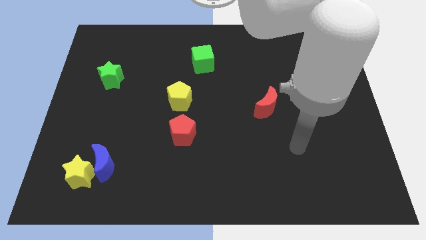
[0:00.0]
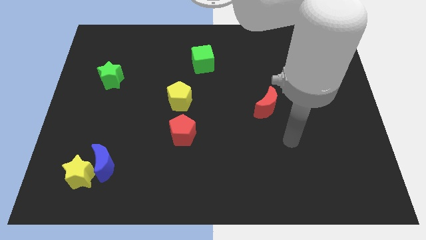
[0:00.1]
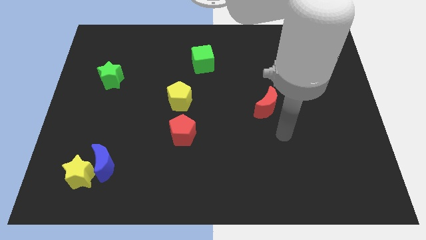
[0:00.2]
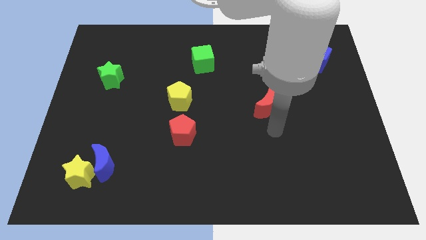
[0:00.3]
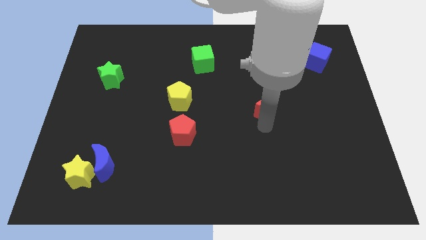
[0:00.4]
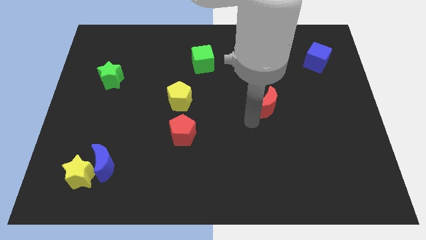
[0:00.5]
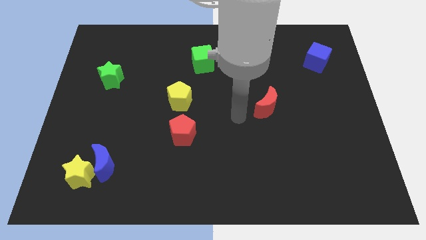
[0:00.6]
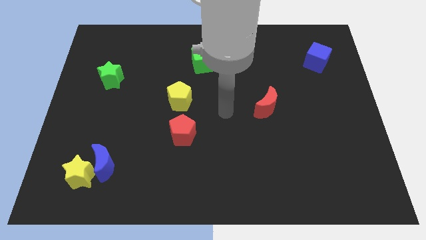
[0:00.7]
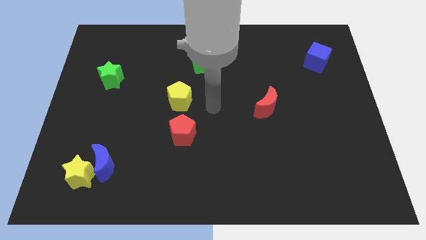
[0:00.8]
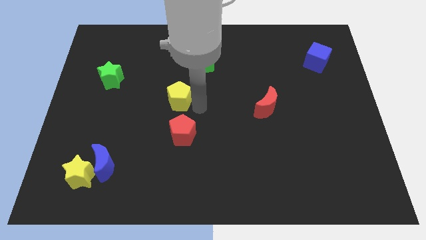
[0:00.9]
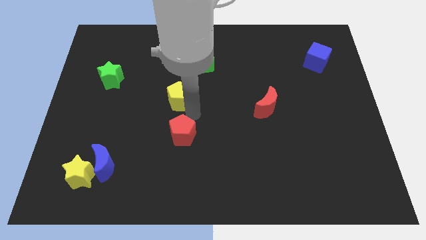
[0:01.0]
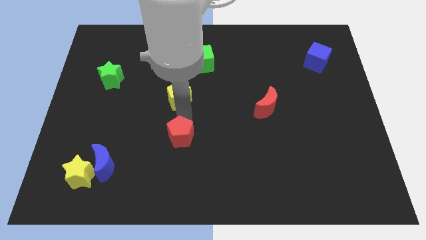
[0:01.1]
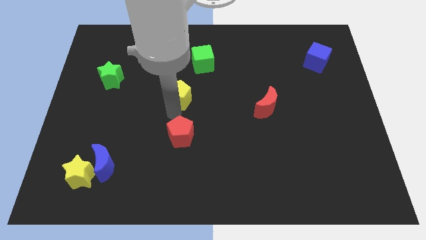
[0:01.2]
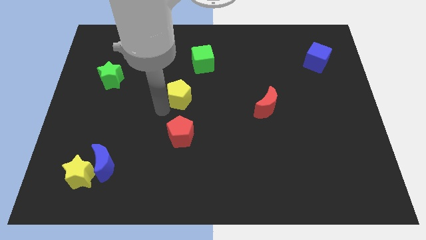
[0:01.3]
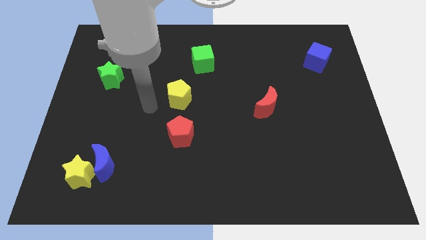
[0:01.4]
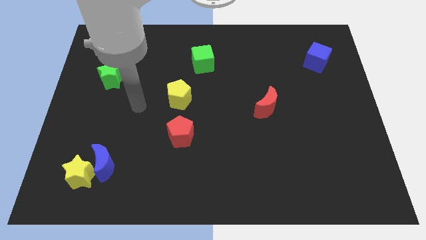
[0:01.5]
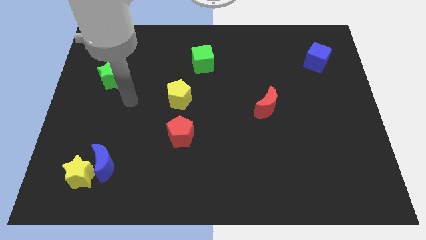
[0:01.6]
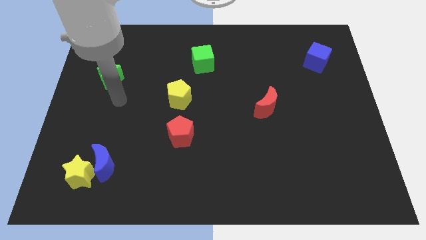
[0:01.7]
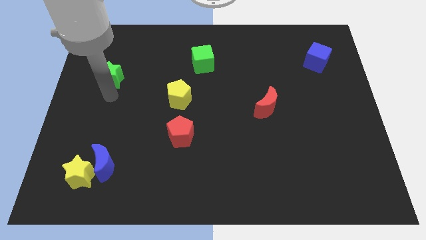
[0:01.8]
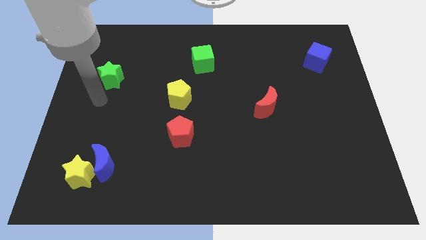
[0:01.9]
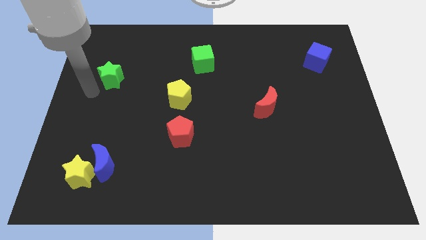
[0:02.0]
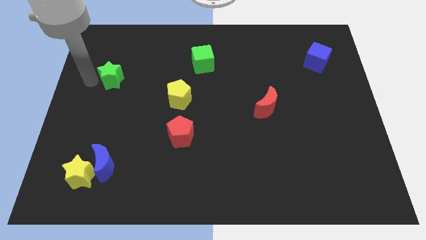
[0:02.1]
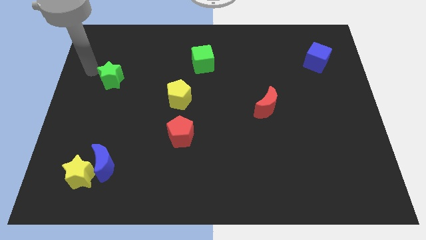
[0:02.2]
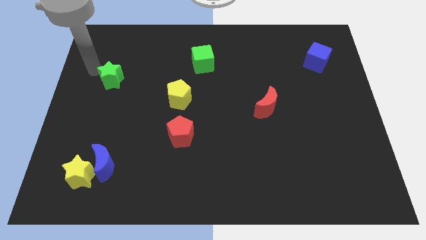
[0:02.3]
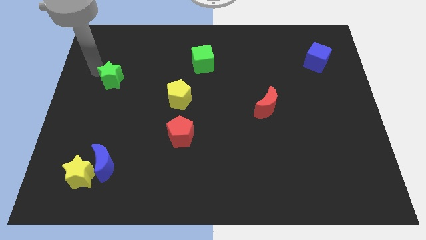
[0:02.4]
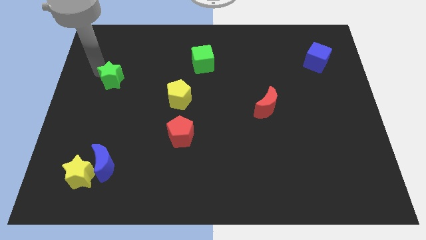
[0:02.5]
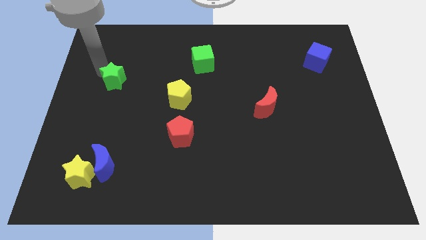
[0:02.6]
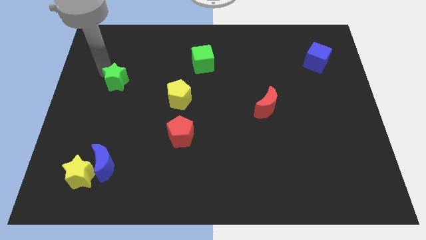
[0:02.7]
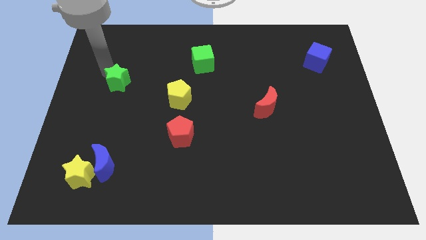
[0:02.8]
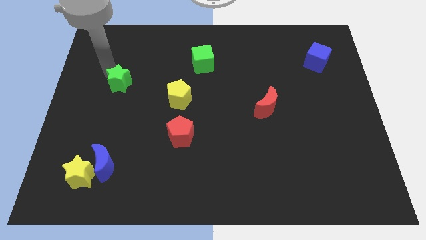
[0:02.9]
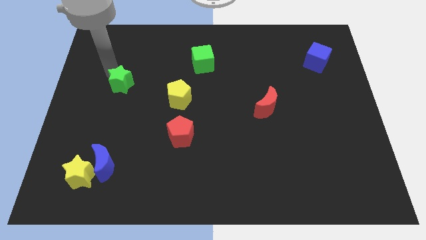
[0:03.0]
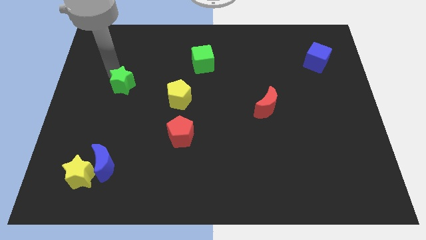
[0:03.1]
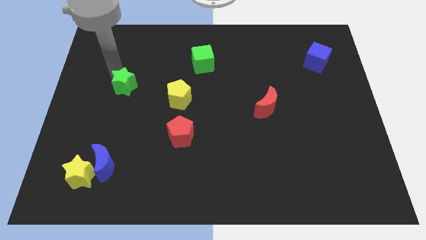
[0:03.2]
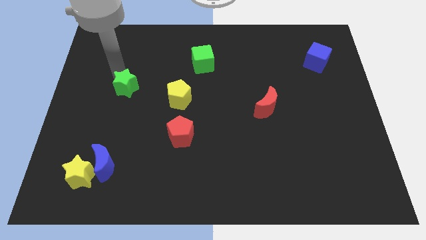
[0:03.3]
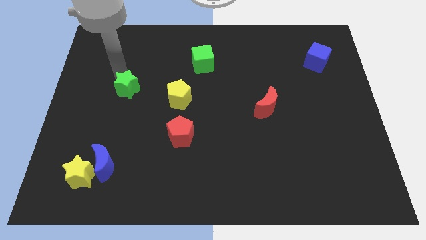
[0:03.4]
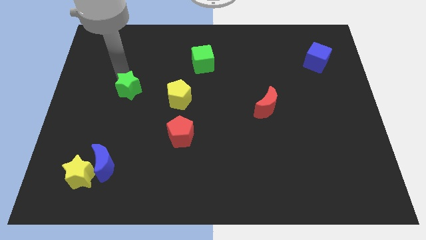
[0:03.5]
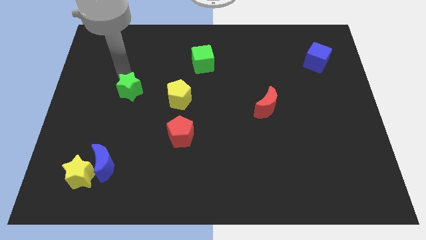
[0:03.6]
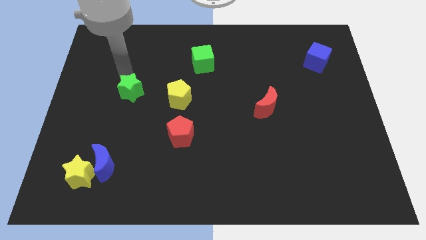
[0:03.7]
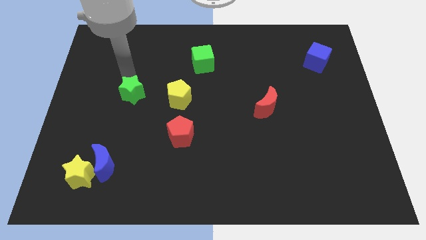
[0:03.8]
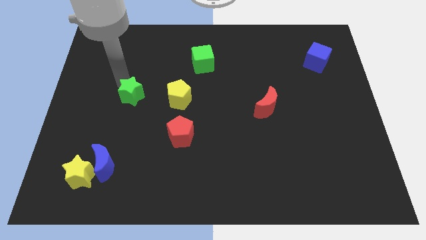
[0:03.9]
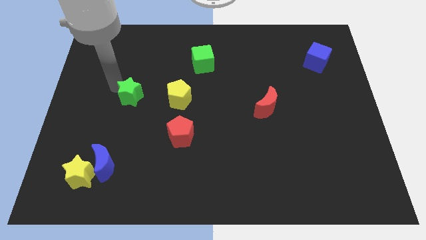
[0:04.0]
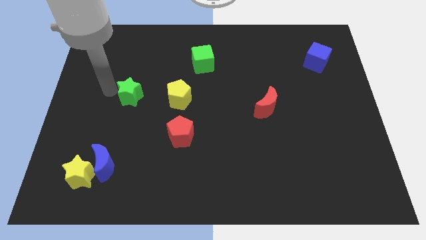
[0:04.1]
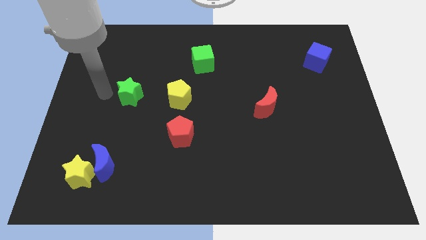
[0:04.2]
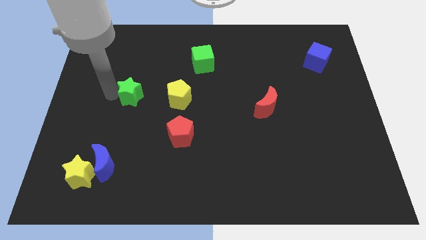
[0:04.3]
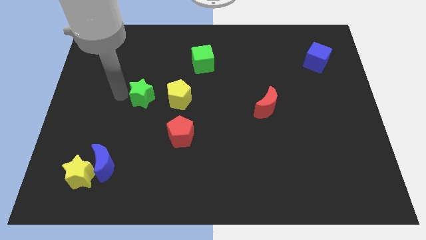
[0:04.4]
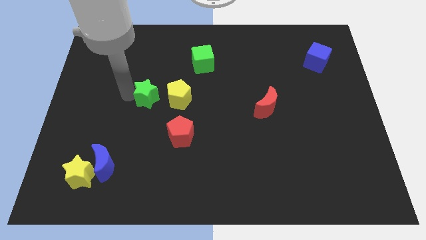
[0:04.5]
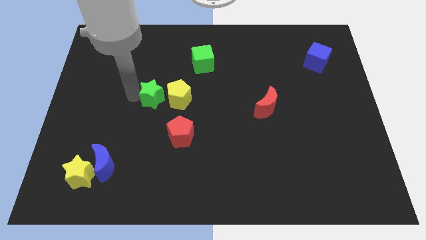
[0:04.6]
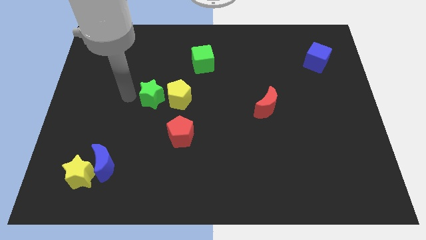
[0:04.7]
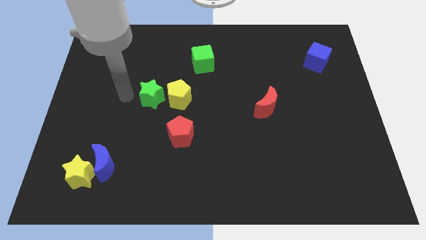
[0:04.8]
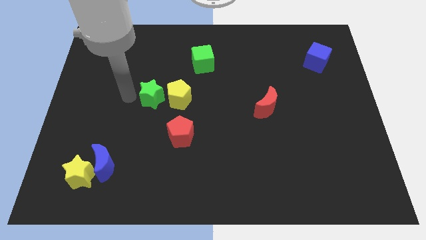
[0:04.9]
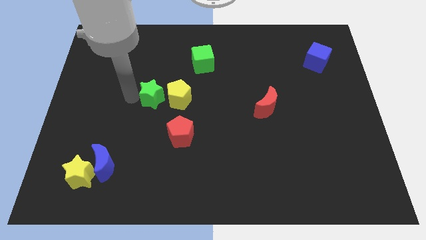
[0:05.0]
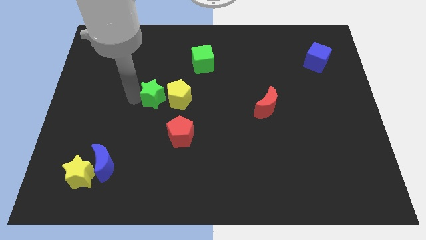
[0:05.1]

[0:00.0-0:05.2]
slide the green star to the yellow pentagon

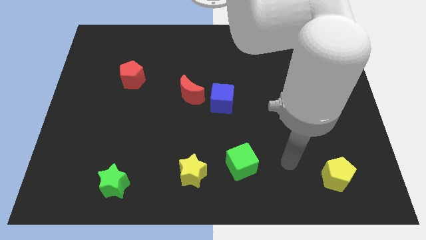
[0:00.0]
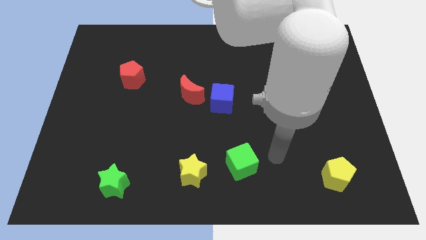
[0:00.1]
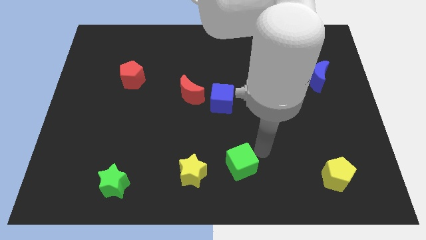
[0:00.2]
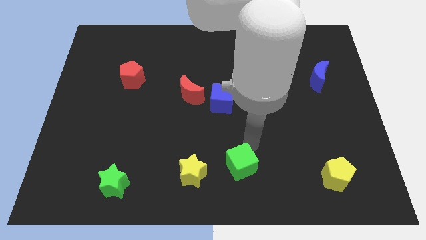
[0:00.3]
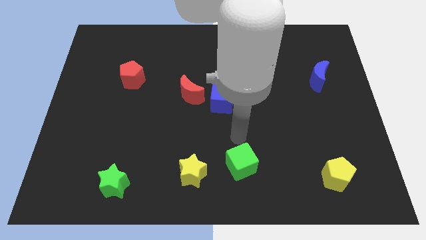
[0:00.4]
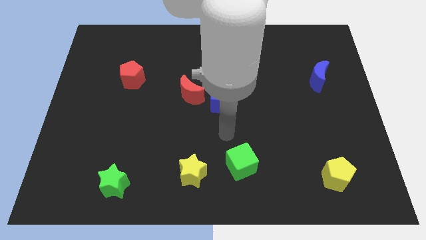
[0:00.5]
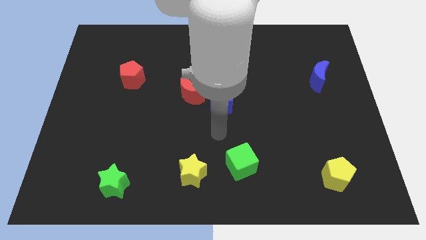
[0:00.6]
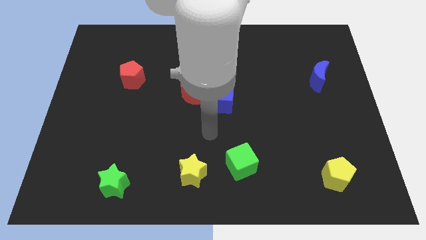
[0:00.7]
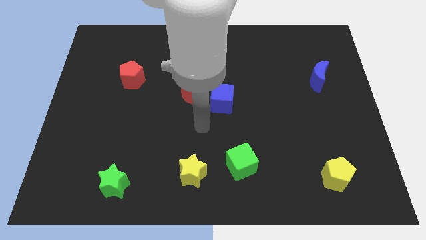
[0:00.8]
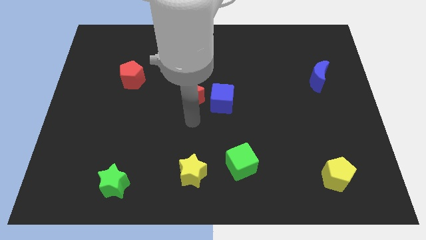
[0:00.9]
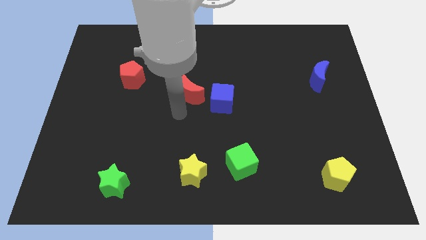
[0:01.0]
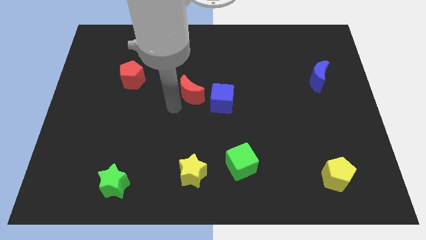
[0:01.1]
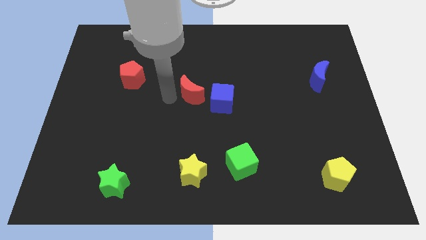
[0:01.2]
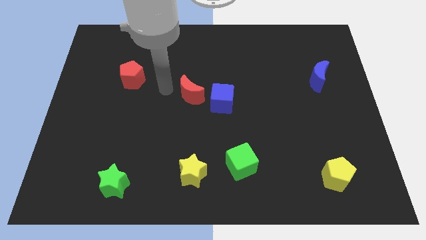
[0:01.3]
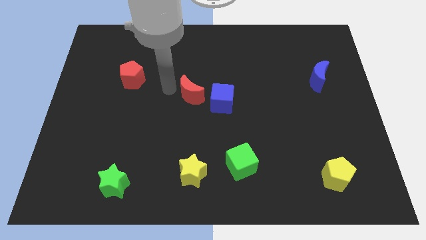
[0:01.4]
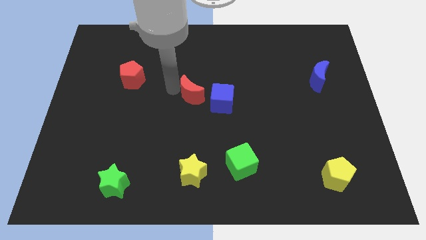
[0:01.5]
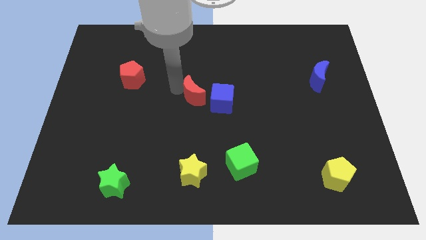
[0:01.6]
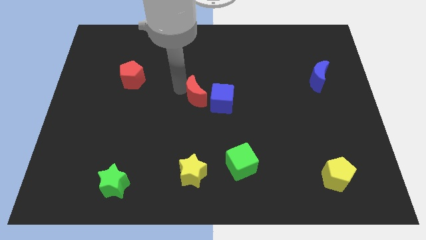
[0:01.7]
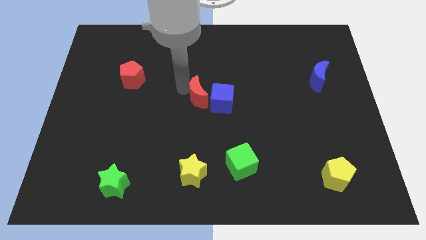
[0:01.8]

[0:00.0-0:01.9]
push the red moon close to the blue cube
